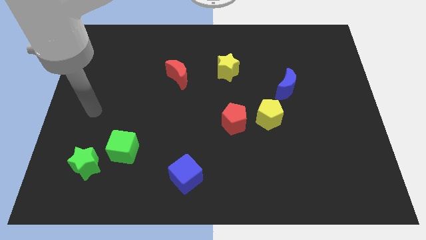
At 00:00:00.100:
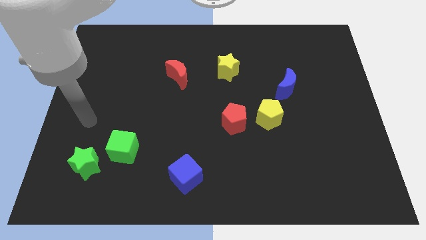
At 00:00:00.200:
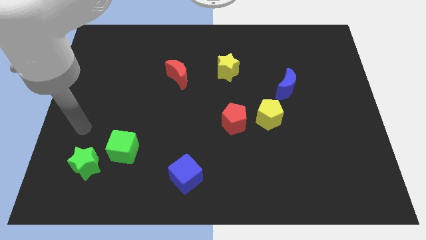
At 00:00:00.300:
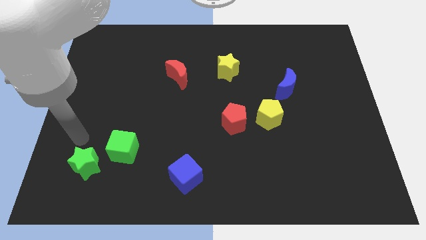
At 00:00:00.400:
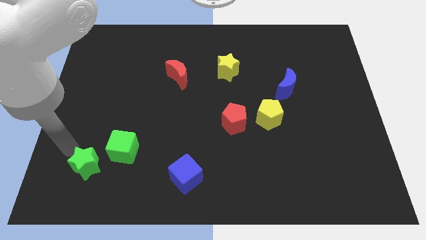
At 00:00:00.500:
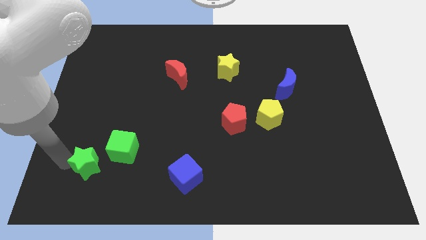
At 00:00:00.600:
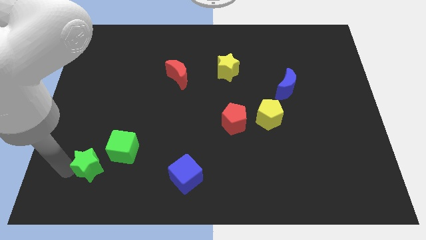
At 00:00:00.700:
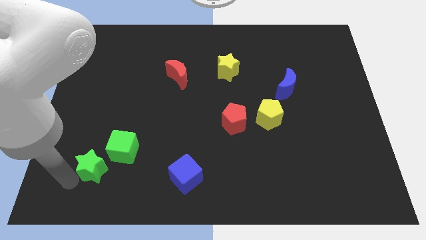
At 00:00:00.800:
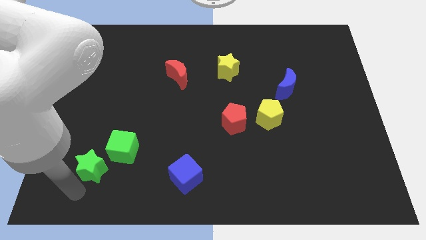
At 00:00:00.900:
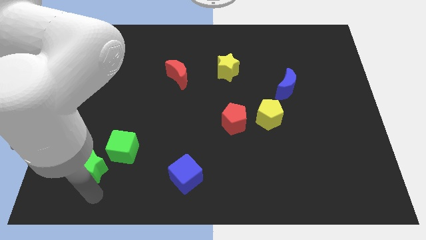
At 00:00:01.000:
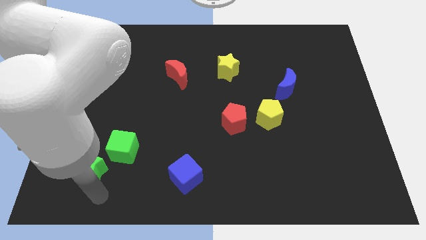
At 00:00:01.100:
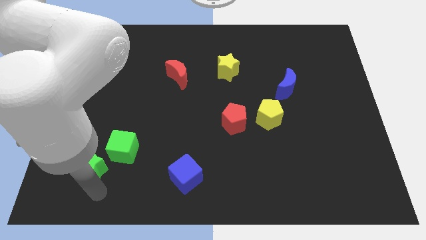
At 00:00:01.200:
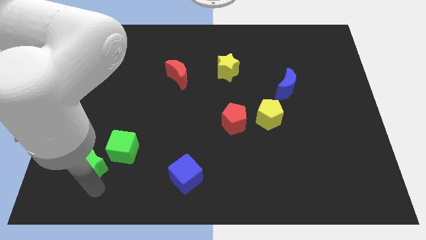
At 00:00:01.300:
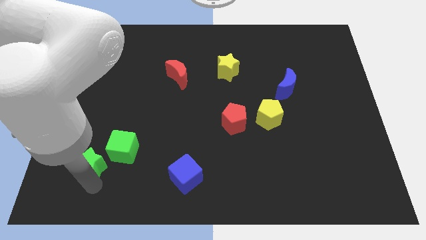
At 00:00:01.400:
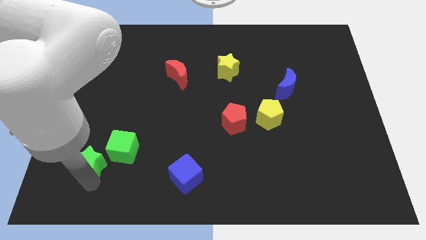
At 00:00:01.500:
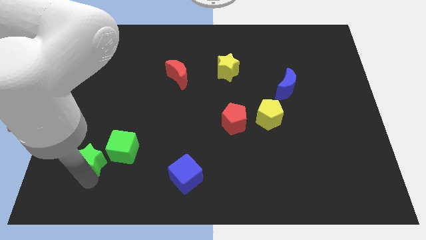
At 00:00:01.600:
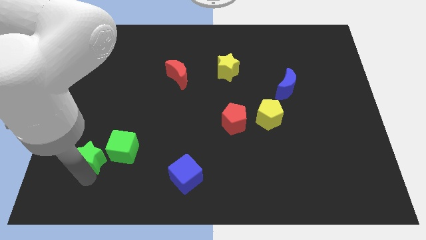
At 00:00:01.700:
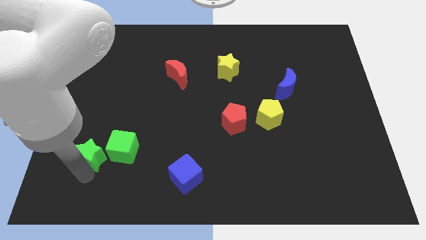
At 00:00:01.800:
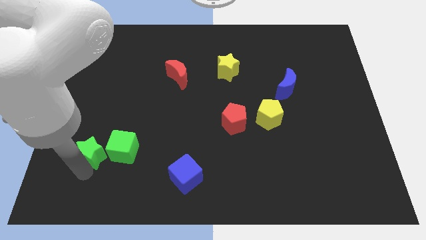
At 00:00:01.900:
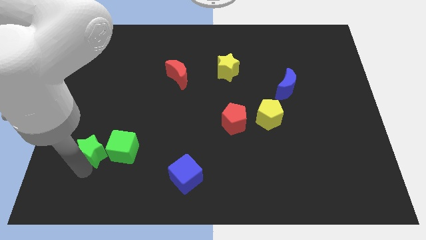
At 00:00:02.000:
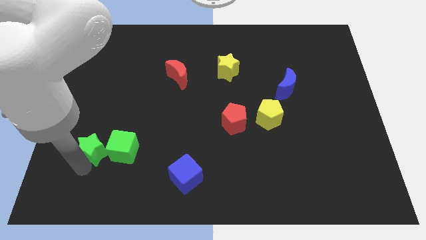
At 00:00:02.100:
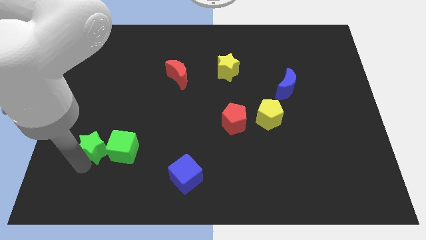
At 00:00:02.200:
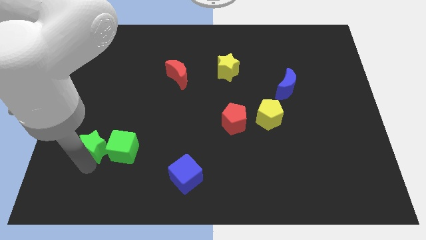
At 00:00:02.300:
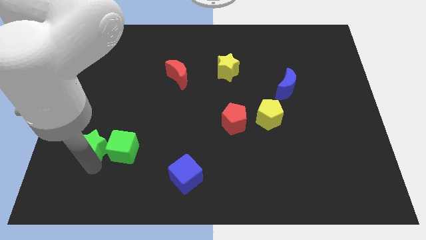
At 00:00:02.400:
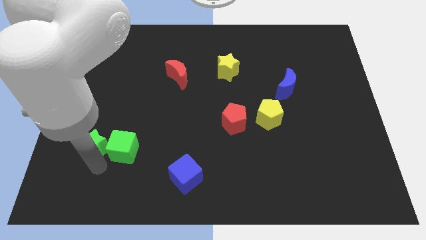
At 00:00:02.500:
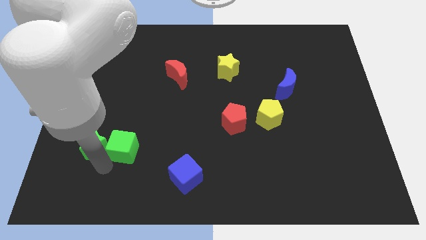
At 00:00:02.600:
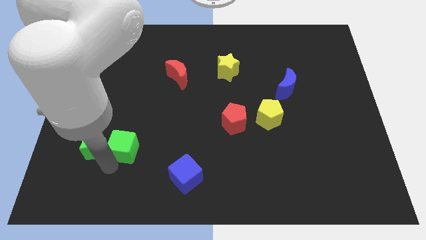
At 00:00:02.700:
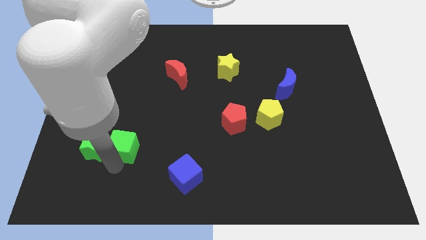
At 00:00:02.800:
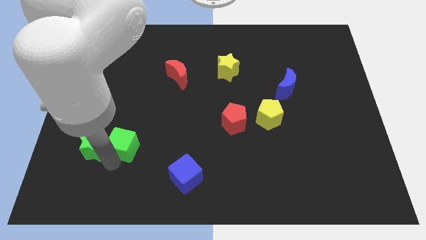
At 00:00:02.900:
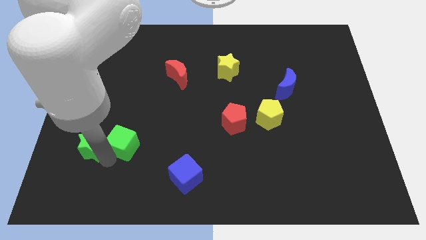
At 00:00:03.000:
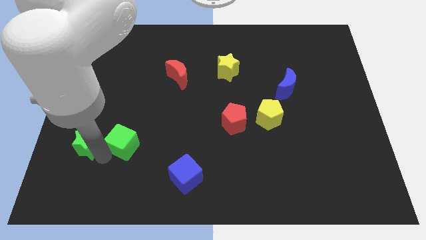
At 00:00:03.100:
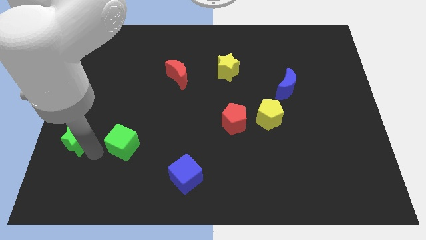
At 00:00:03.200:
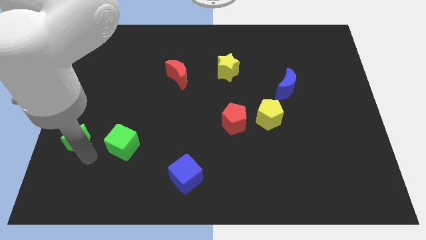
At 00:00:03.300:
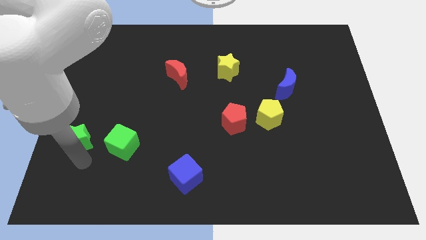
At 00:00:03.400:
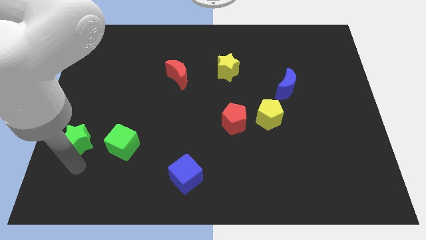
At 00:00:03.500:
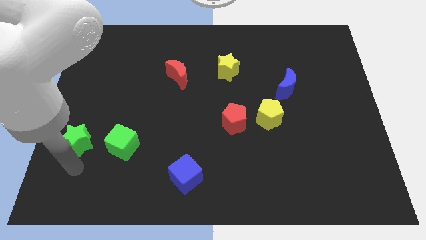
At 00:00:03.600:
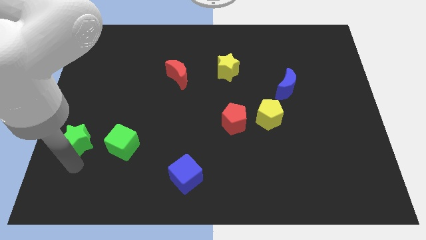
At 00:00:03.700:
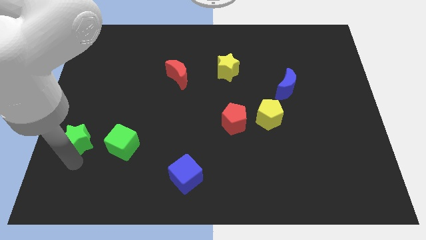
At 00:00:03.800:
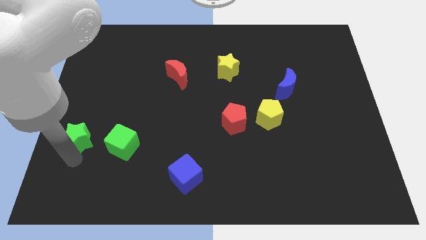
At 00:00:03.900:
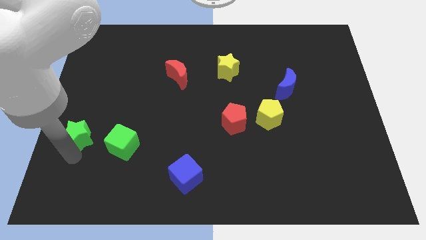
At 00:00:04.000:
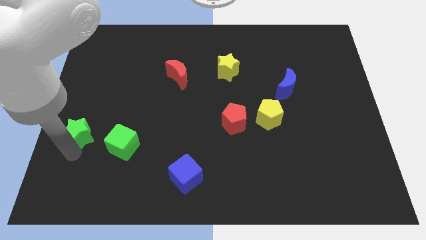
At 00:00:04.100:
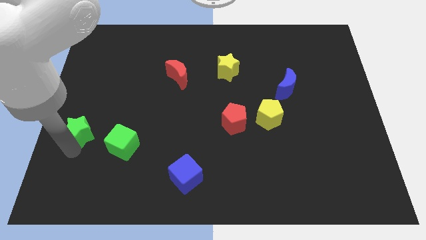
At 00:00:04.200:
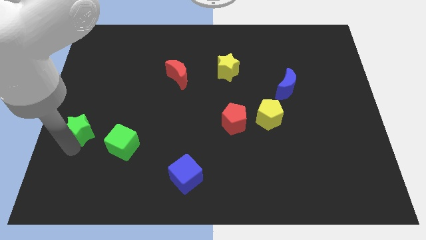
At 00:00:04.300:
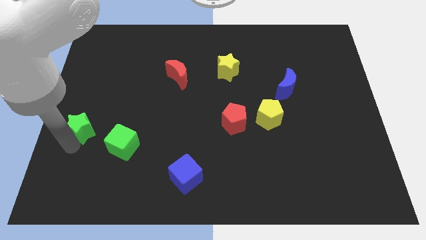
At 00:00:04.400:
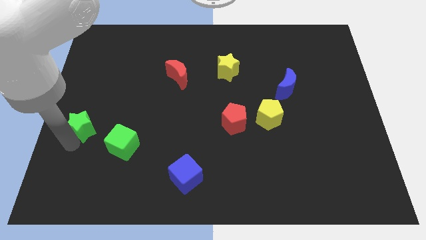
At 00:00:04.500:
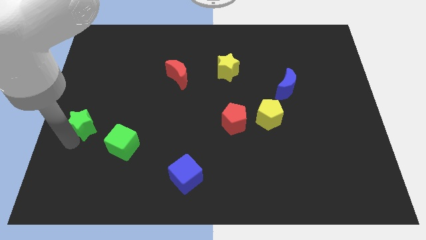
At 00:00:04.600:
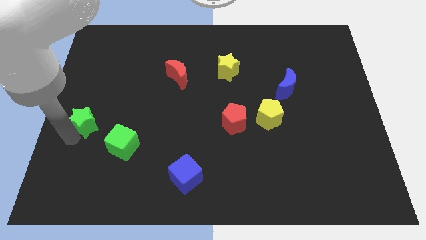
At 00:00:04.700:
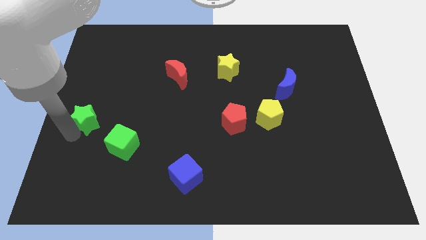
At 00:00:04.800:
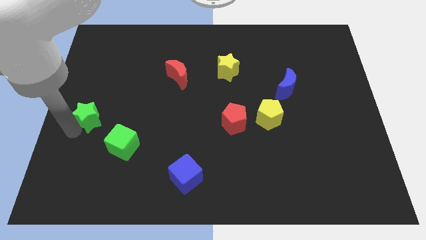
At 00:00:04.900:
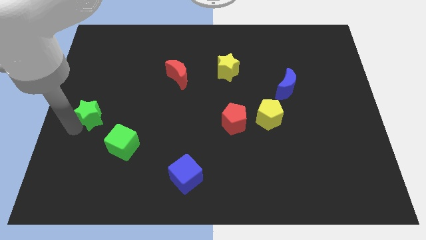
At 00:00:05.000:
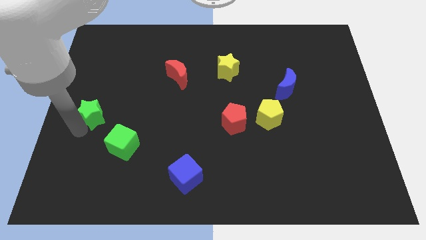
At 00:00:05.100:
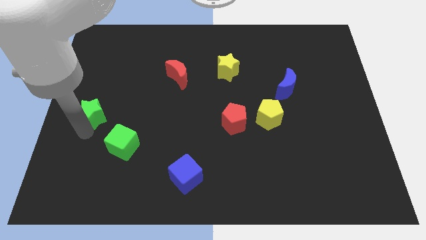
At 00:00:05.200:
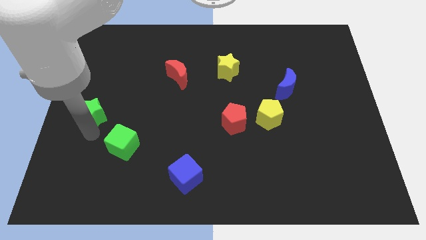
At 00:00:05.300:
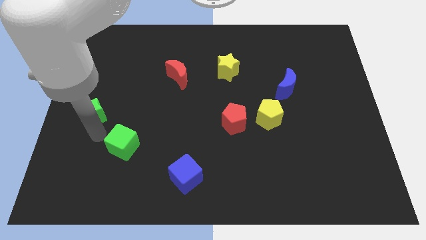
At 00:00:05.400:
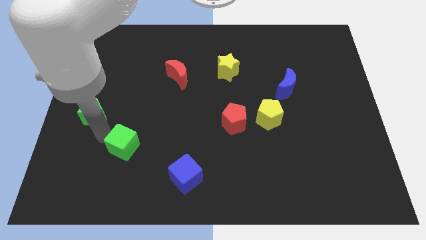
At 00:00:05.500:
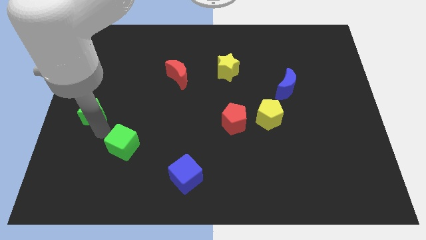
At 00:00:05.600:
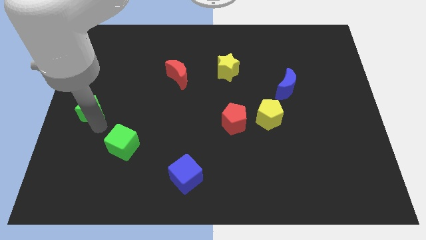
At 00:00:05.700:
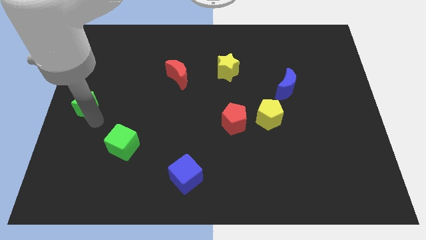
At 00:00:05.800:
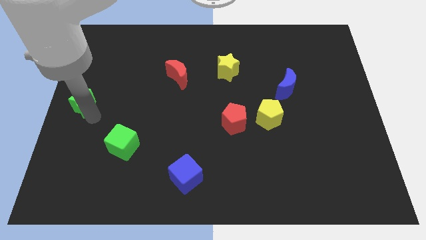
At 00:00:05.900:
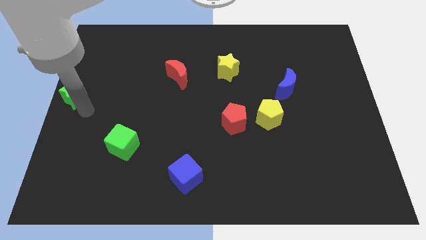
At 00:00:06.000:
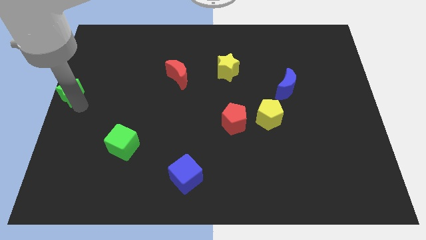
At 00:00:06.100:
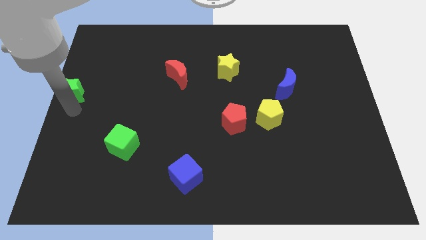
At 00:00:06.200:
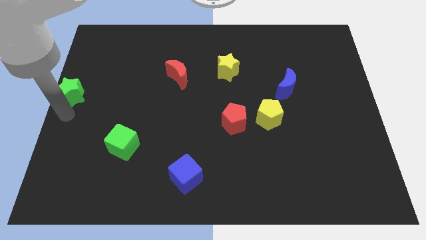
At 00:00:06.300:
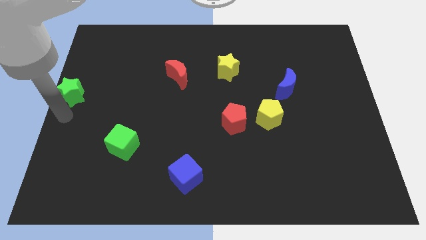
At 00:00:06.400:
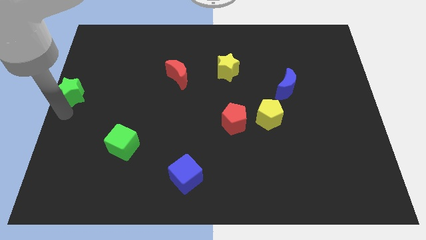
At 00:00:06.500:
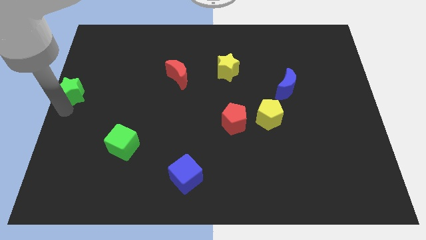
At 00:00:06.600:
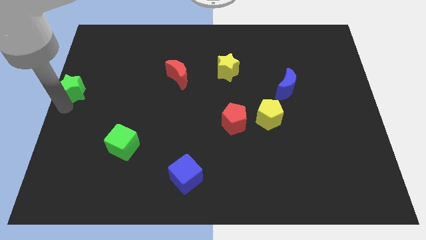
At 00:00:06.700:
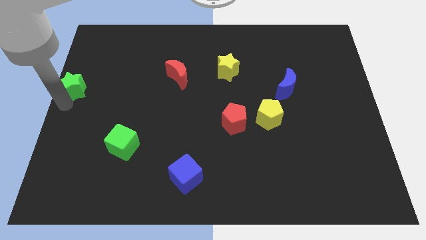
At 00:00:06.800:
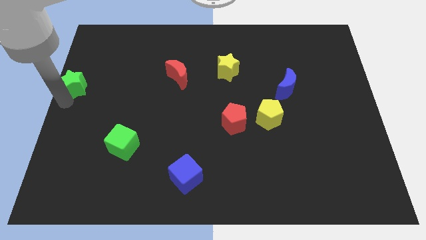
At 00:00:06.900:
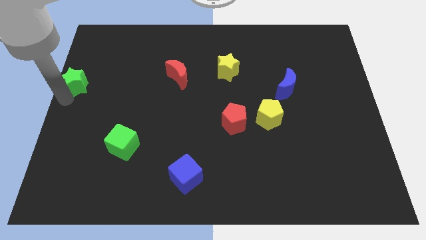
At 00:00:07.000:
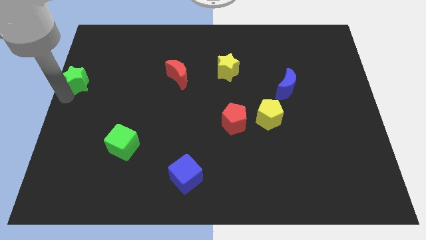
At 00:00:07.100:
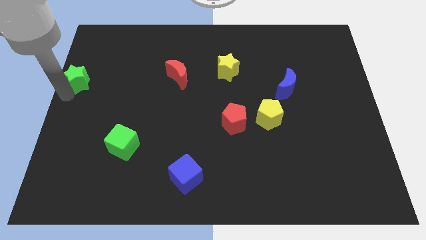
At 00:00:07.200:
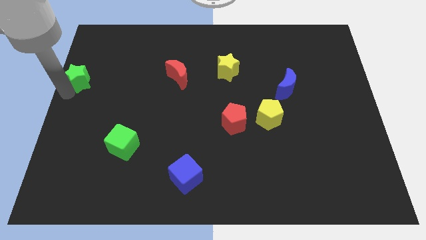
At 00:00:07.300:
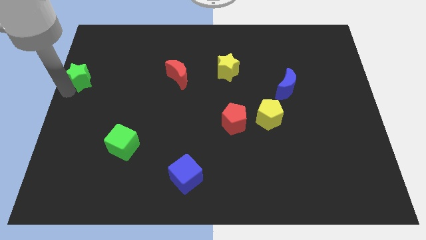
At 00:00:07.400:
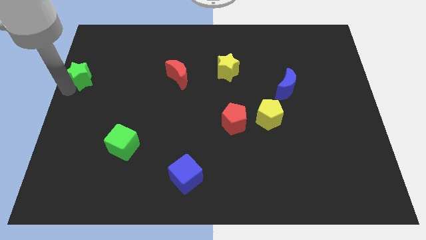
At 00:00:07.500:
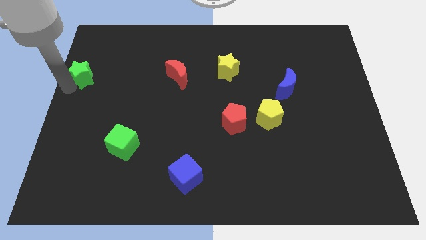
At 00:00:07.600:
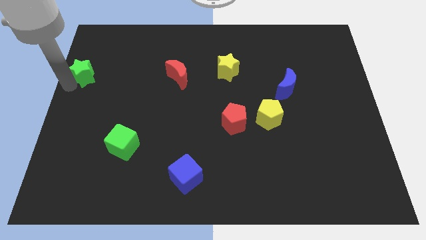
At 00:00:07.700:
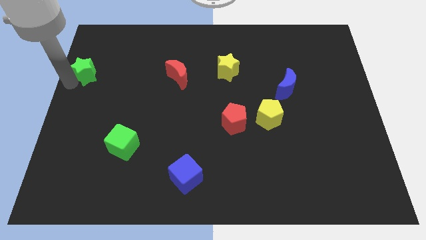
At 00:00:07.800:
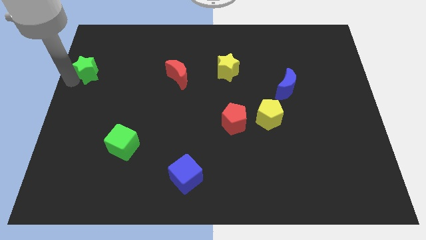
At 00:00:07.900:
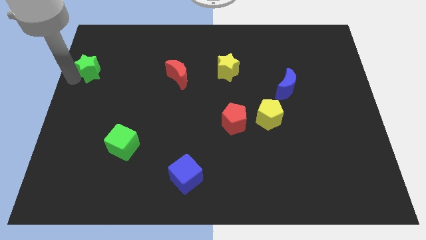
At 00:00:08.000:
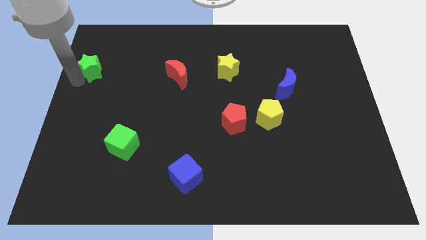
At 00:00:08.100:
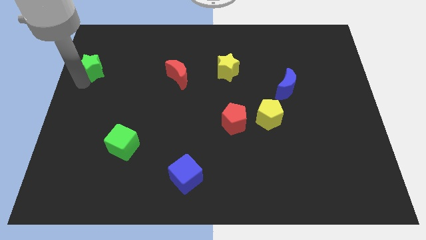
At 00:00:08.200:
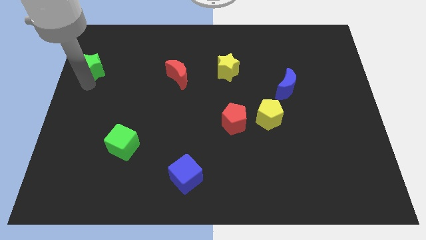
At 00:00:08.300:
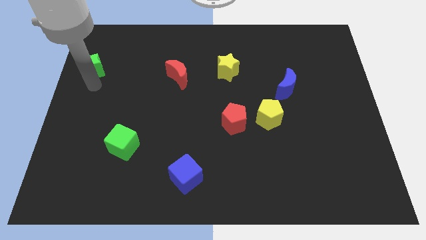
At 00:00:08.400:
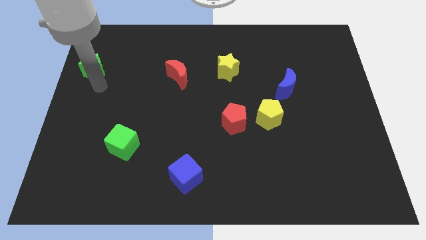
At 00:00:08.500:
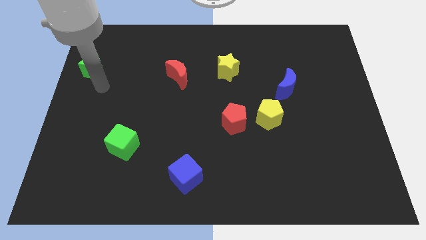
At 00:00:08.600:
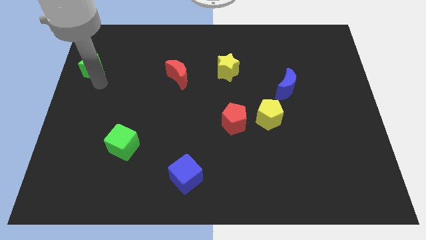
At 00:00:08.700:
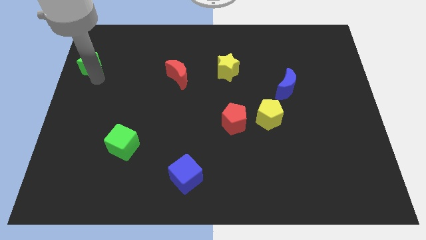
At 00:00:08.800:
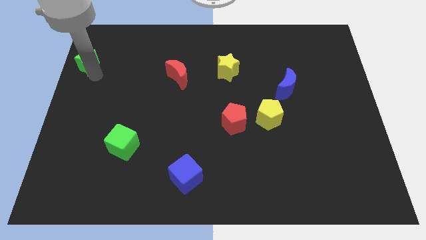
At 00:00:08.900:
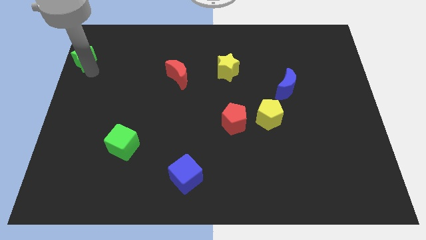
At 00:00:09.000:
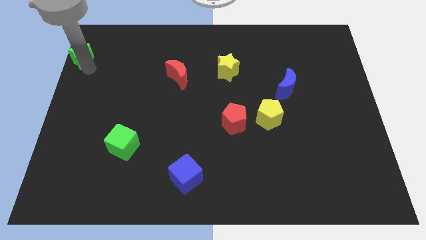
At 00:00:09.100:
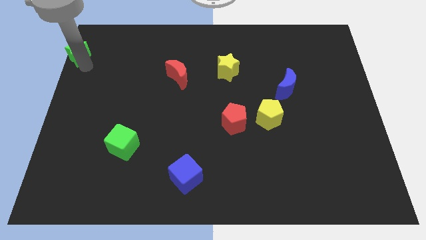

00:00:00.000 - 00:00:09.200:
slide the green star to the top left corner
